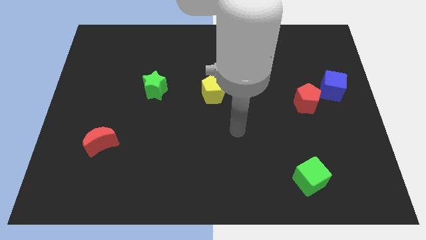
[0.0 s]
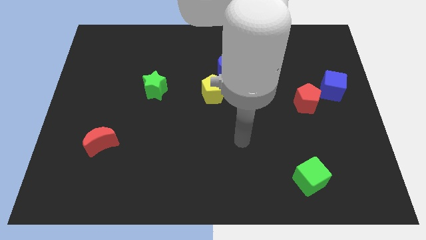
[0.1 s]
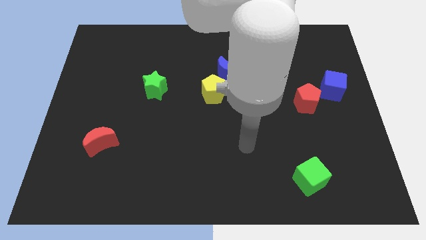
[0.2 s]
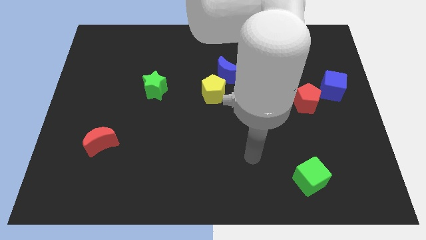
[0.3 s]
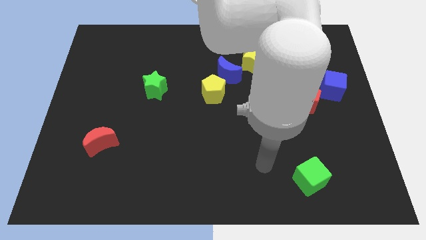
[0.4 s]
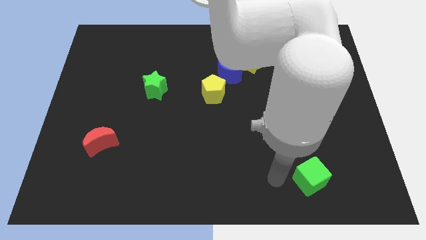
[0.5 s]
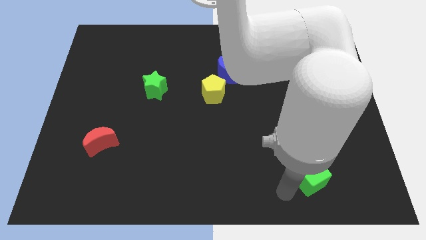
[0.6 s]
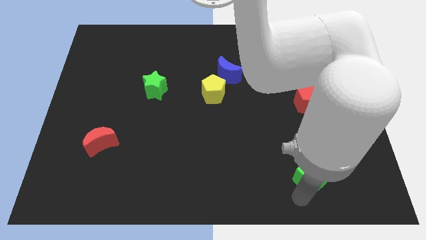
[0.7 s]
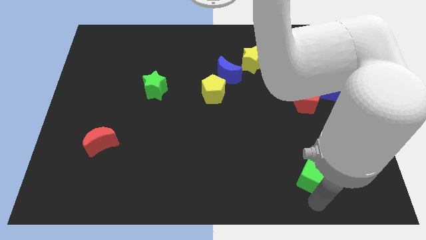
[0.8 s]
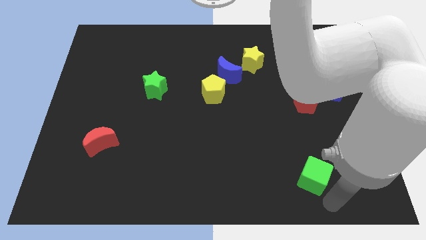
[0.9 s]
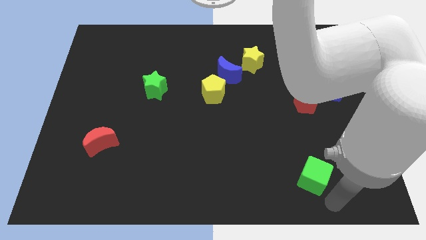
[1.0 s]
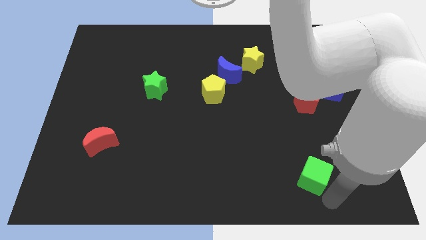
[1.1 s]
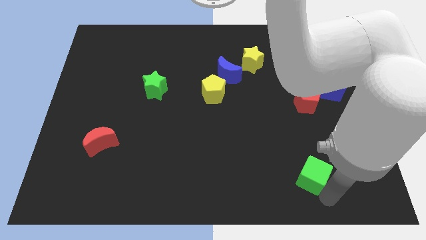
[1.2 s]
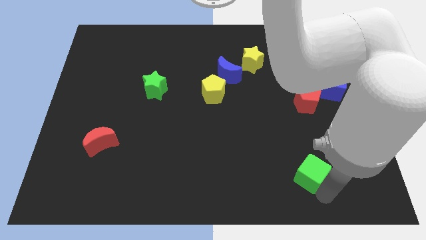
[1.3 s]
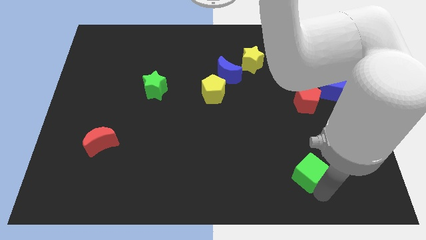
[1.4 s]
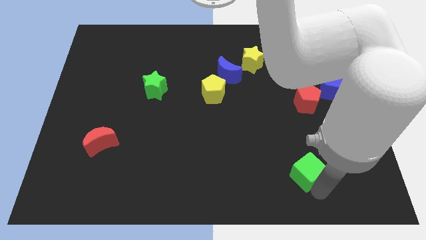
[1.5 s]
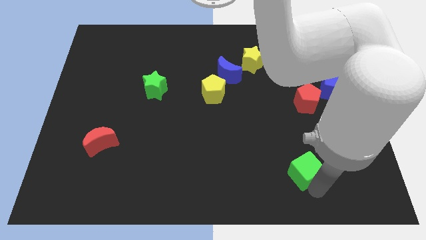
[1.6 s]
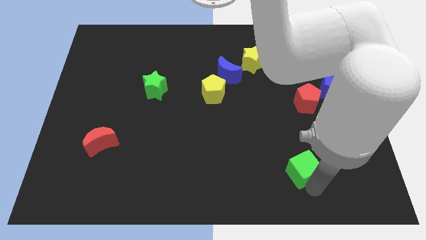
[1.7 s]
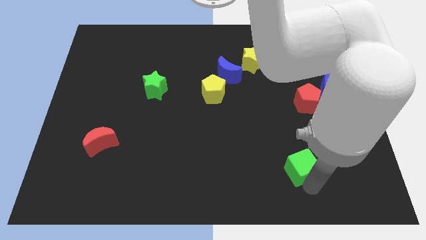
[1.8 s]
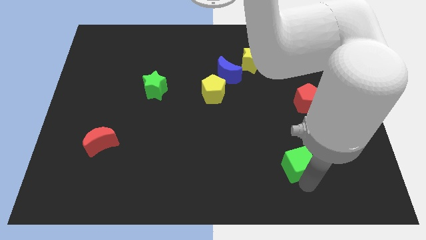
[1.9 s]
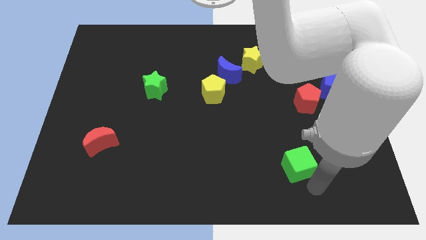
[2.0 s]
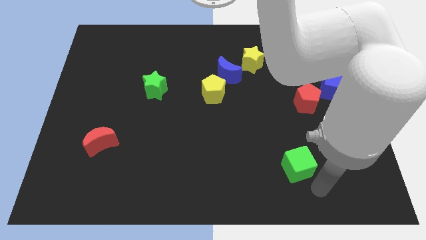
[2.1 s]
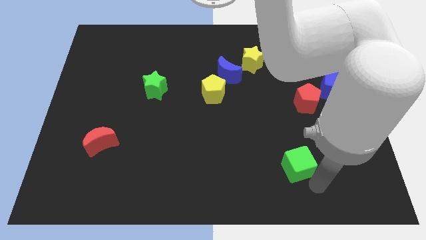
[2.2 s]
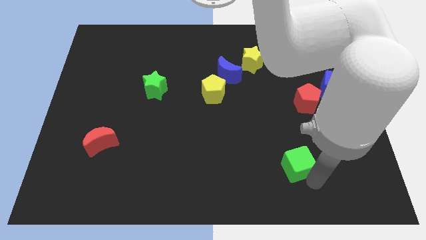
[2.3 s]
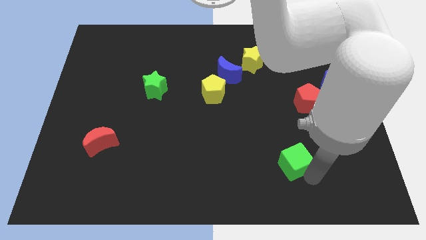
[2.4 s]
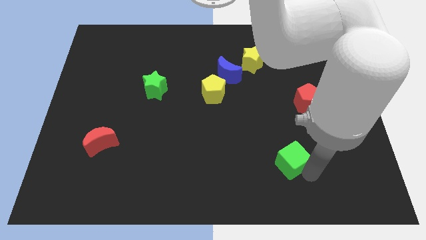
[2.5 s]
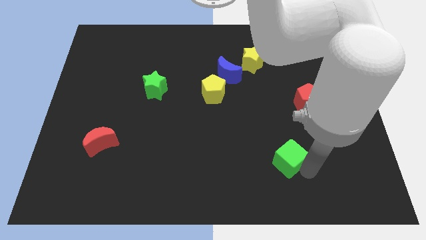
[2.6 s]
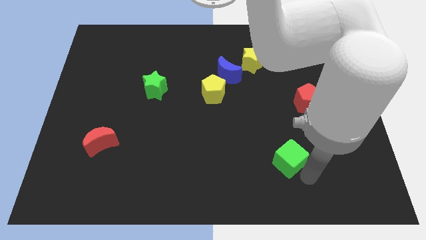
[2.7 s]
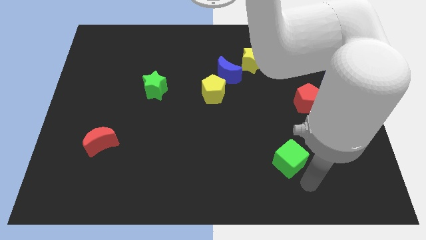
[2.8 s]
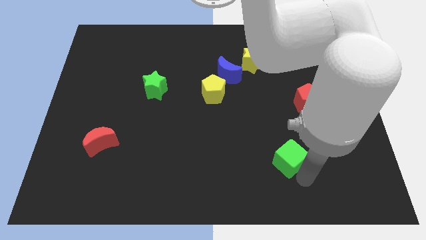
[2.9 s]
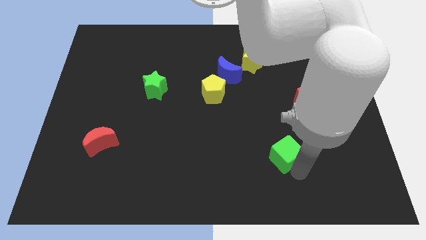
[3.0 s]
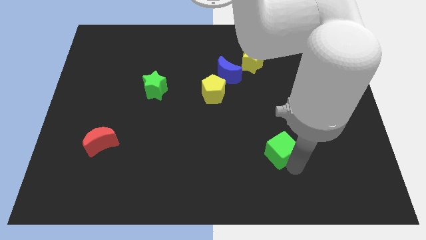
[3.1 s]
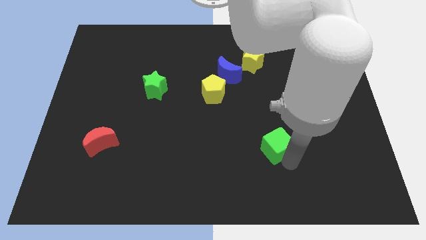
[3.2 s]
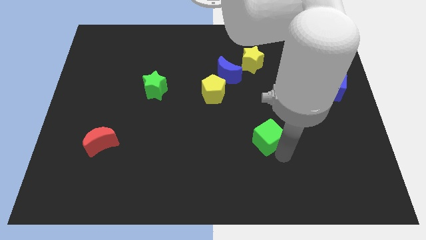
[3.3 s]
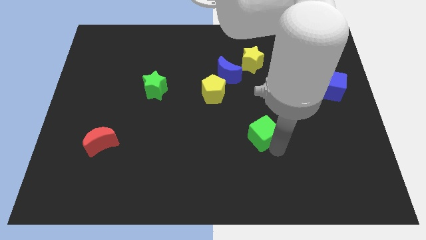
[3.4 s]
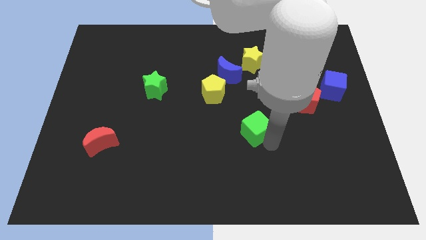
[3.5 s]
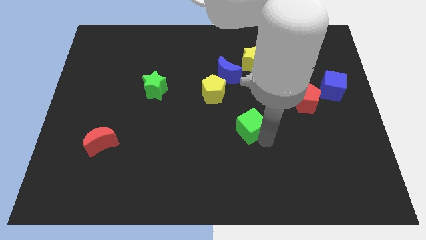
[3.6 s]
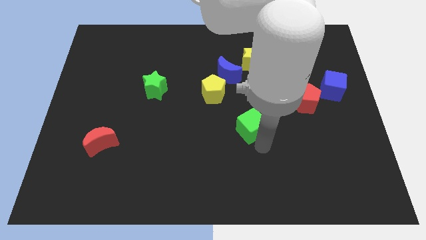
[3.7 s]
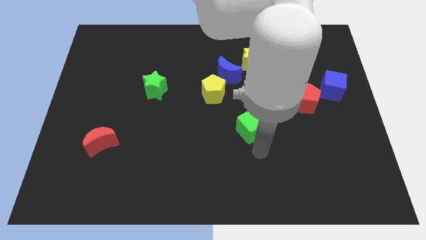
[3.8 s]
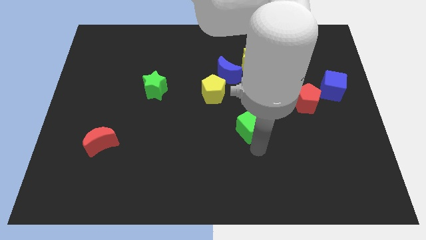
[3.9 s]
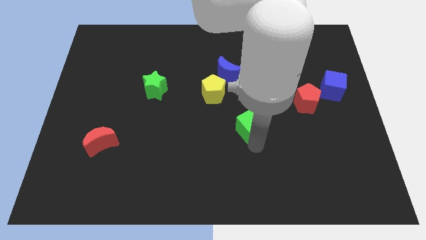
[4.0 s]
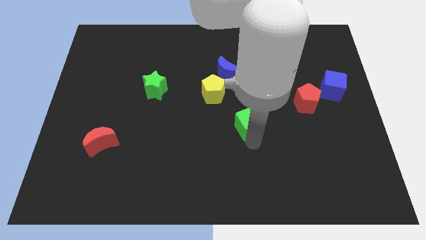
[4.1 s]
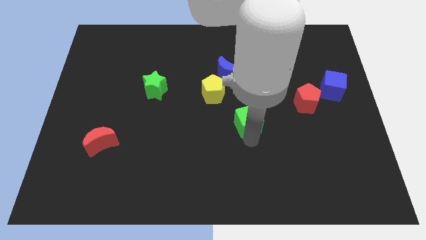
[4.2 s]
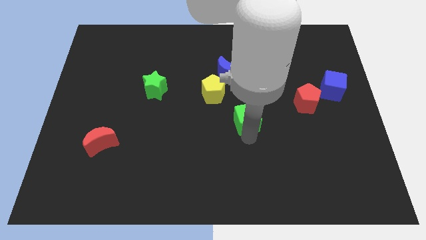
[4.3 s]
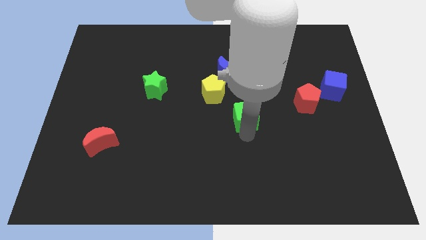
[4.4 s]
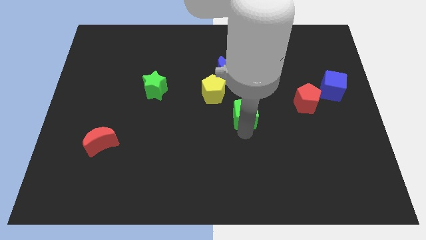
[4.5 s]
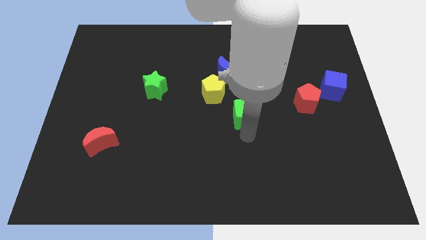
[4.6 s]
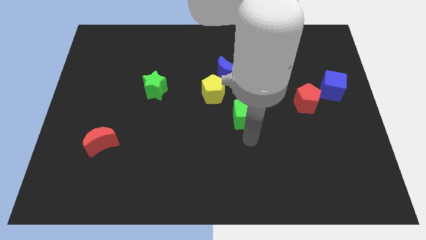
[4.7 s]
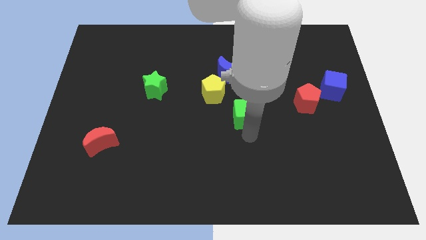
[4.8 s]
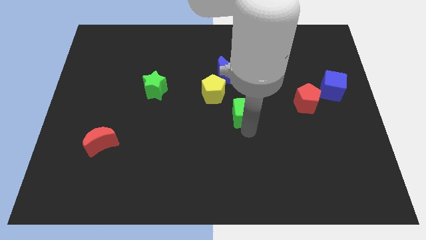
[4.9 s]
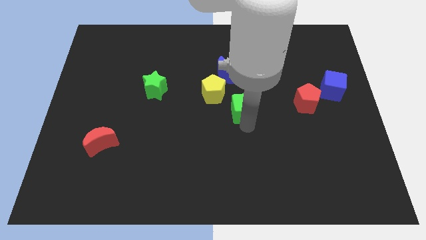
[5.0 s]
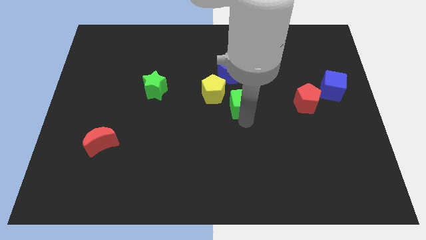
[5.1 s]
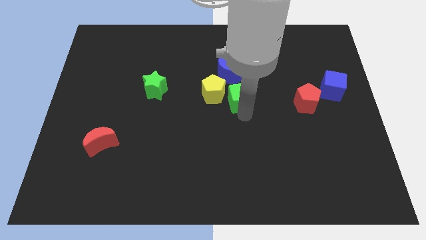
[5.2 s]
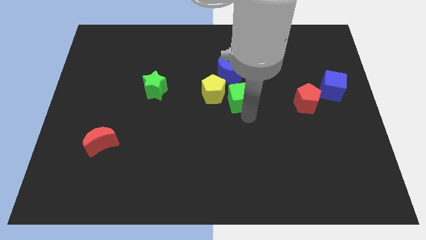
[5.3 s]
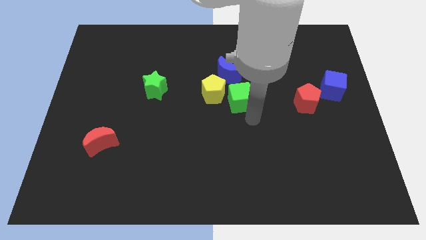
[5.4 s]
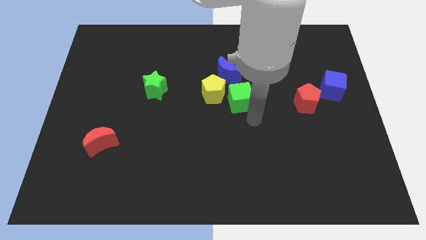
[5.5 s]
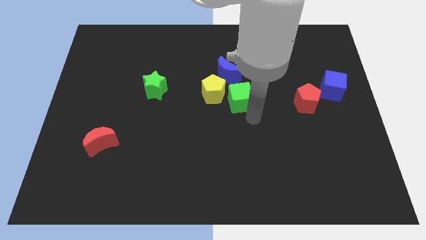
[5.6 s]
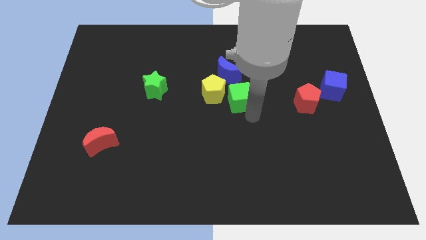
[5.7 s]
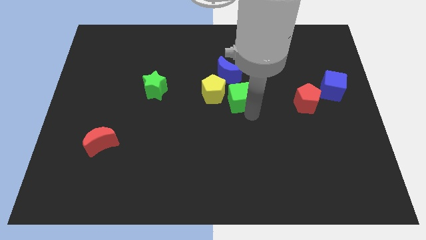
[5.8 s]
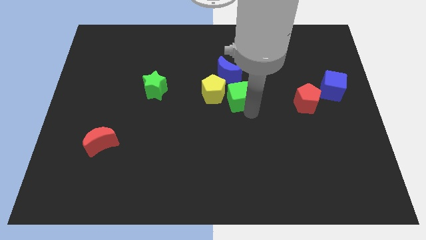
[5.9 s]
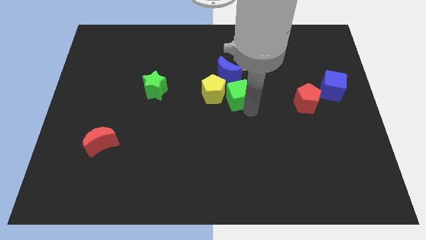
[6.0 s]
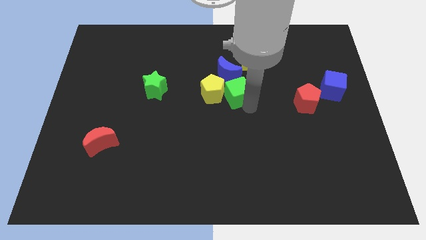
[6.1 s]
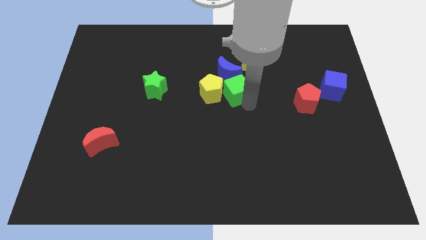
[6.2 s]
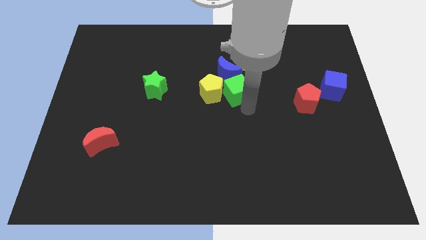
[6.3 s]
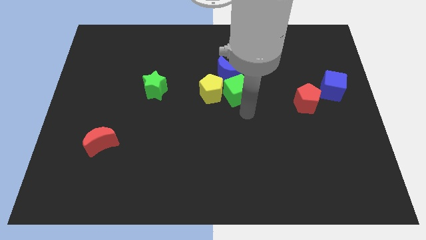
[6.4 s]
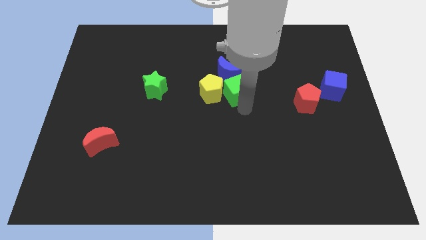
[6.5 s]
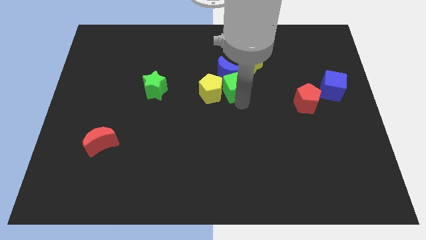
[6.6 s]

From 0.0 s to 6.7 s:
move the green cube to the blue moon
